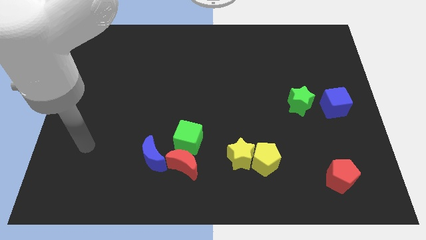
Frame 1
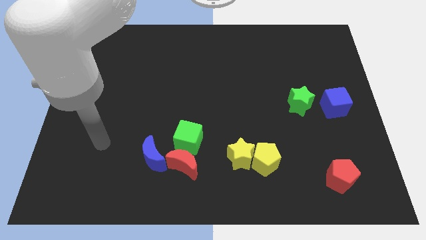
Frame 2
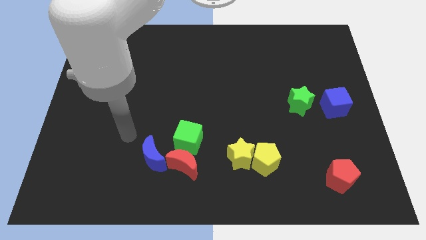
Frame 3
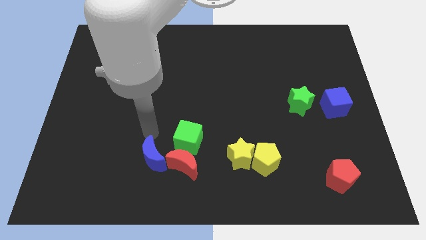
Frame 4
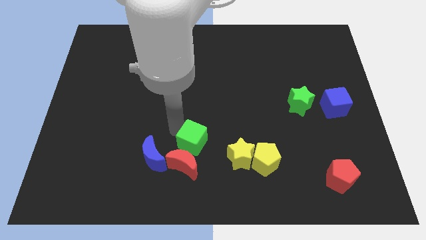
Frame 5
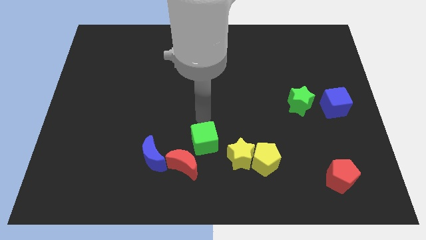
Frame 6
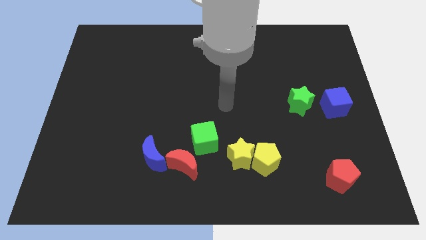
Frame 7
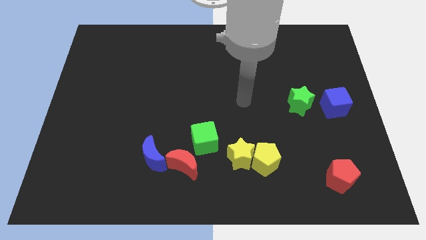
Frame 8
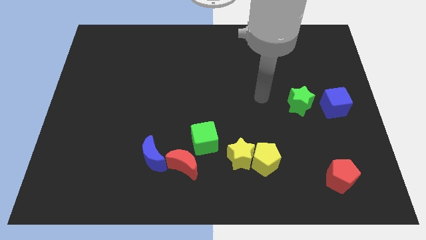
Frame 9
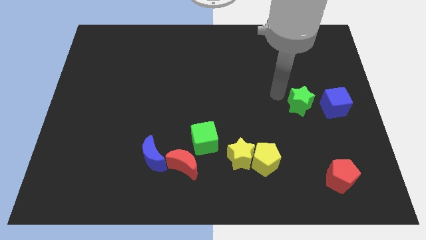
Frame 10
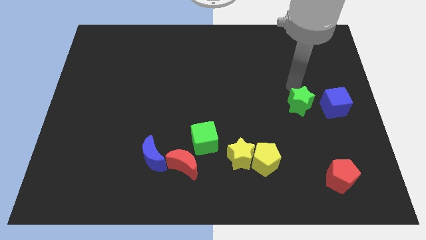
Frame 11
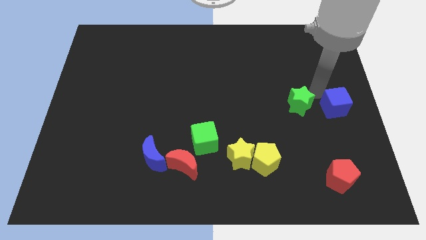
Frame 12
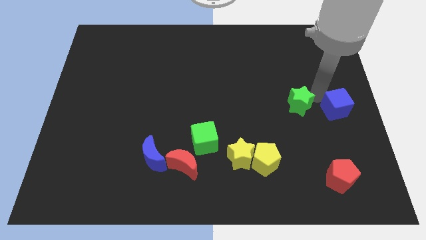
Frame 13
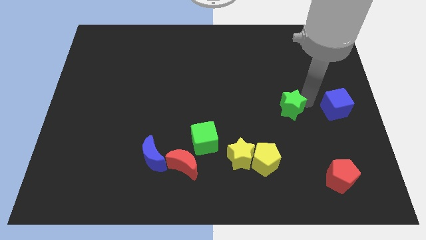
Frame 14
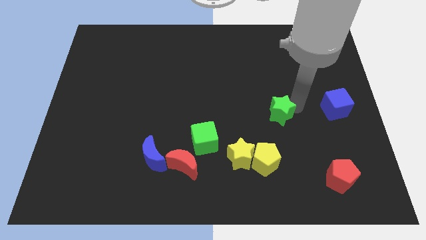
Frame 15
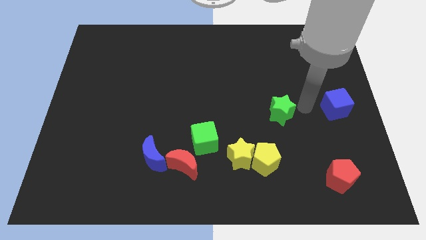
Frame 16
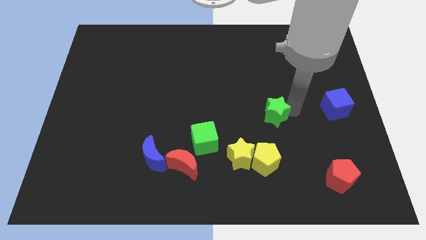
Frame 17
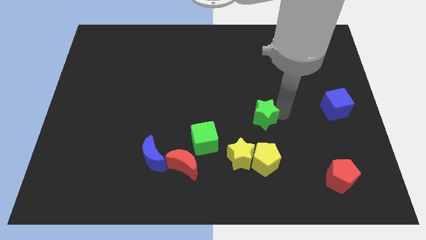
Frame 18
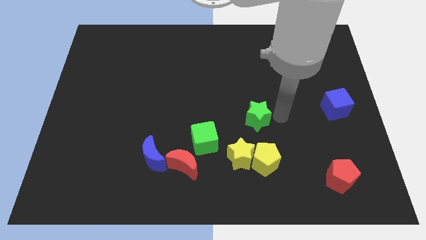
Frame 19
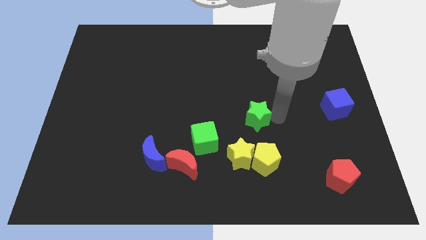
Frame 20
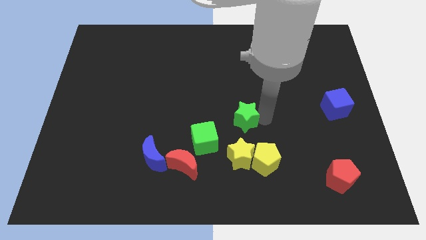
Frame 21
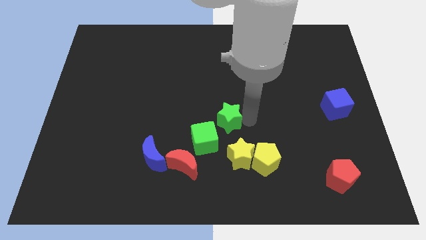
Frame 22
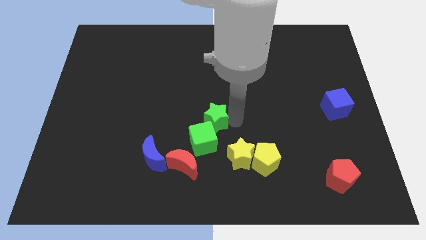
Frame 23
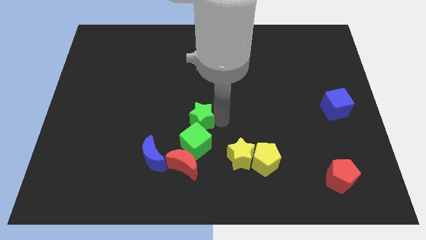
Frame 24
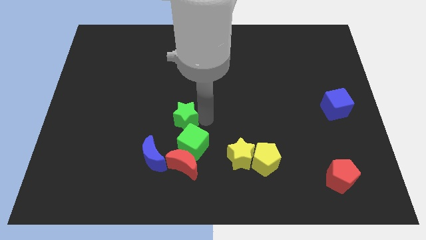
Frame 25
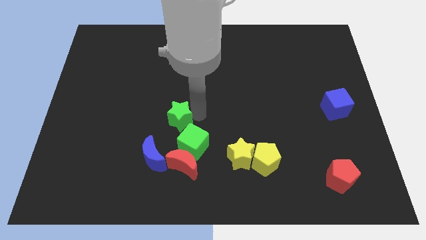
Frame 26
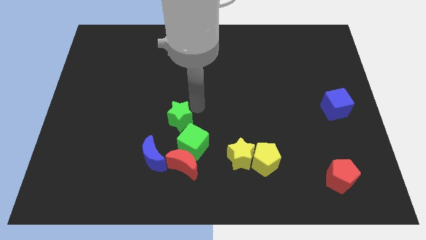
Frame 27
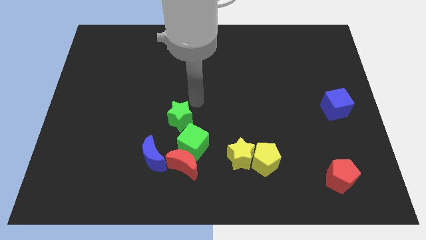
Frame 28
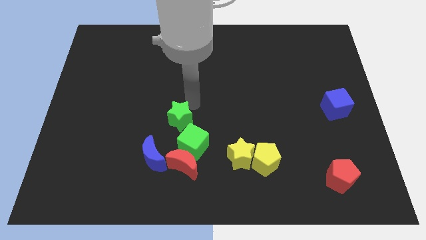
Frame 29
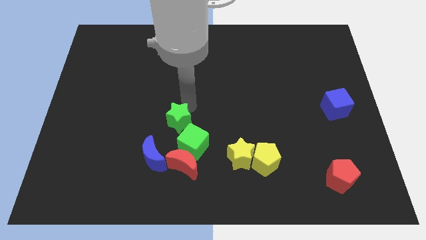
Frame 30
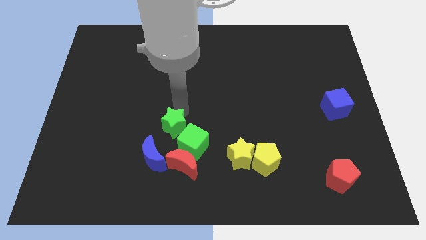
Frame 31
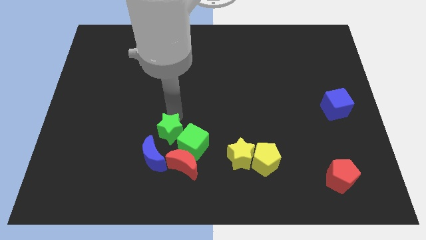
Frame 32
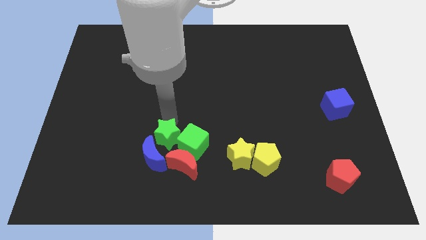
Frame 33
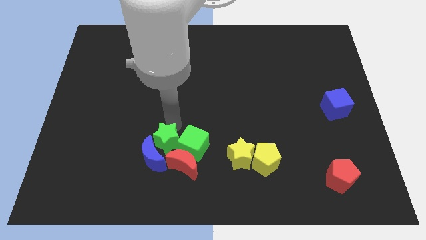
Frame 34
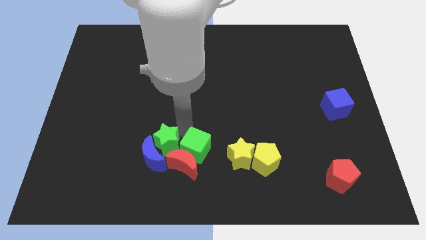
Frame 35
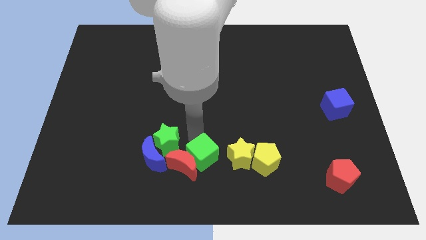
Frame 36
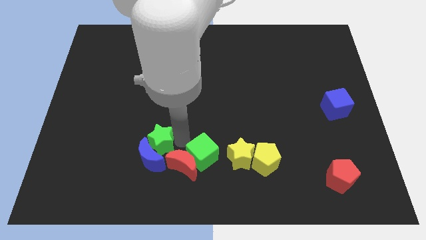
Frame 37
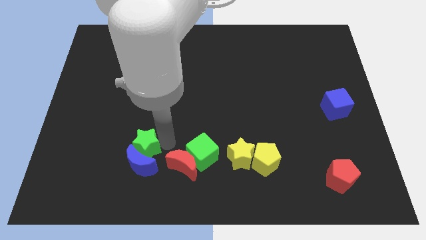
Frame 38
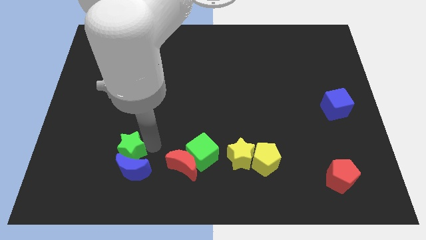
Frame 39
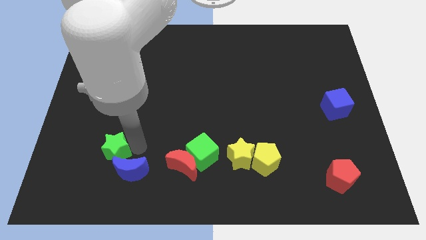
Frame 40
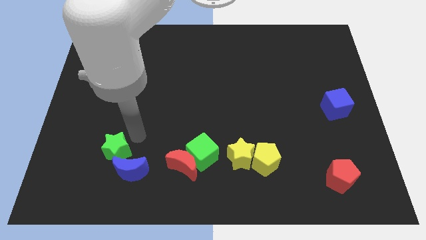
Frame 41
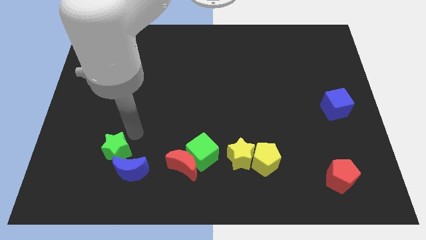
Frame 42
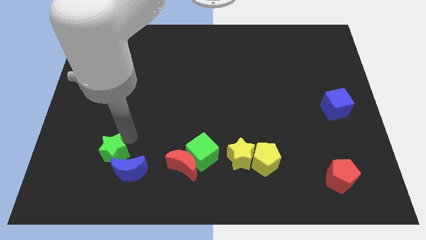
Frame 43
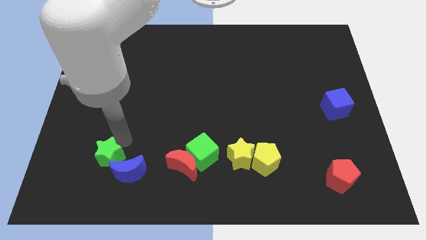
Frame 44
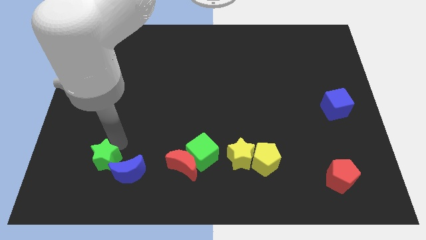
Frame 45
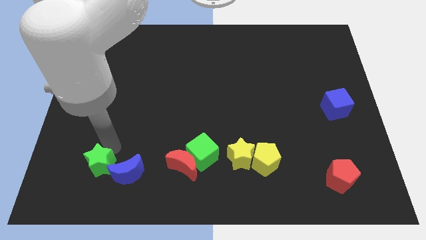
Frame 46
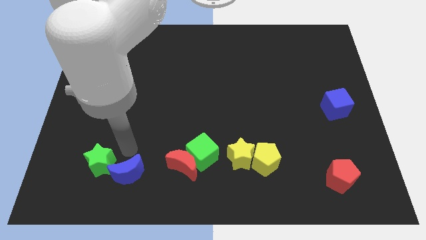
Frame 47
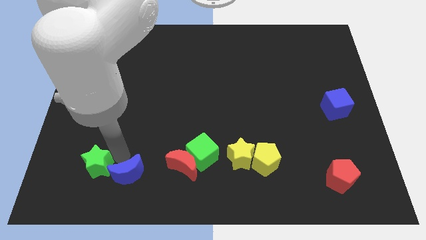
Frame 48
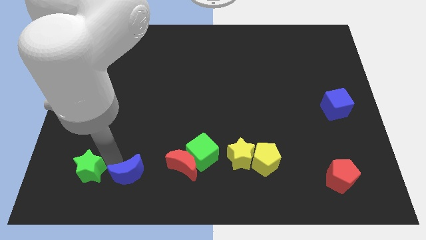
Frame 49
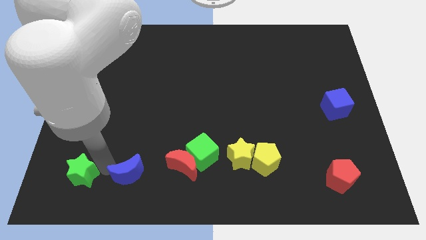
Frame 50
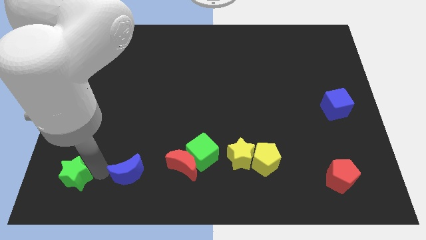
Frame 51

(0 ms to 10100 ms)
push the green star to the lower left corner

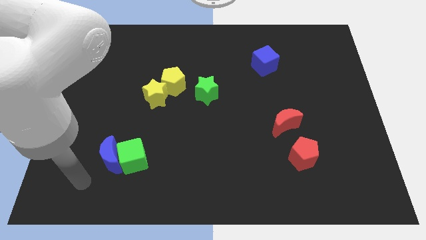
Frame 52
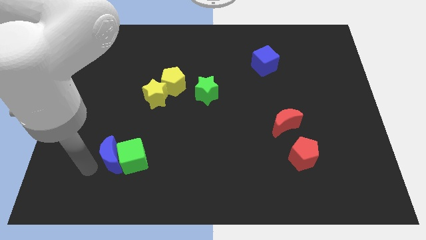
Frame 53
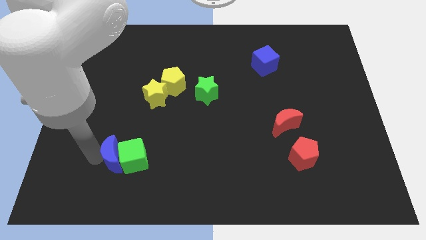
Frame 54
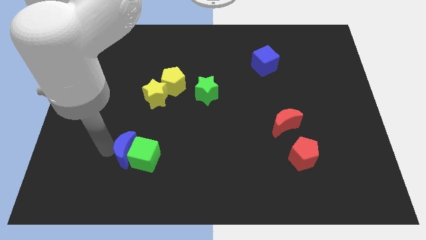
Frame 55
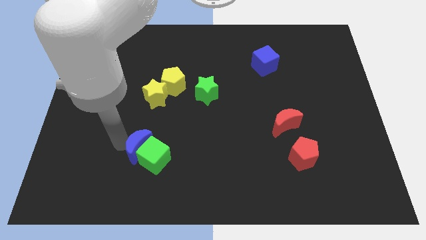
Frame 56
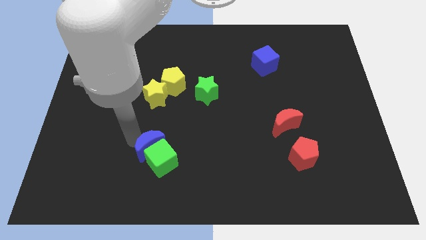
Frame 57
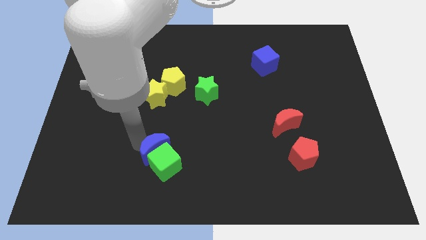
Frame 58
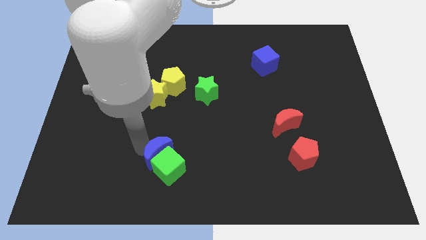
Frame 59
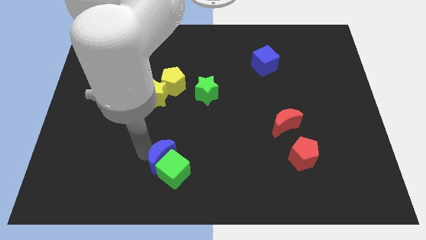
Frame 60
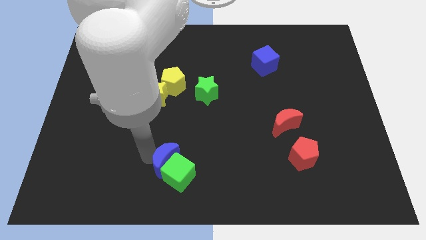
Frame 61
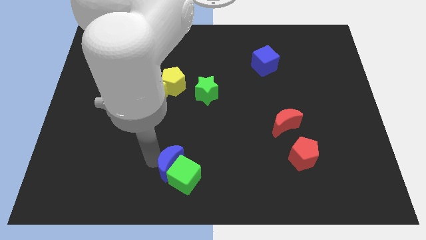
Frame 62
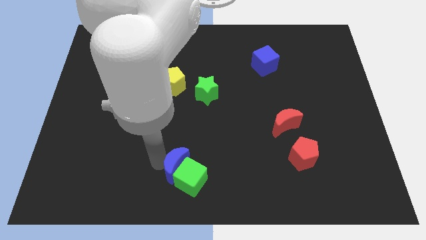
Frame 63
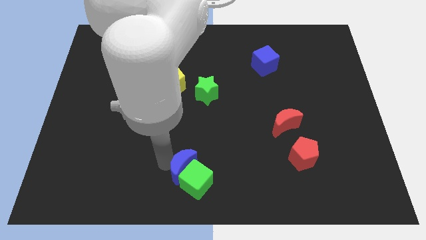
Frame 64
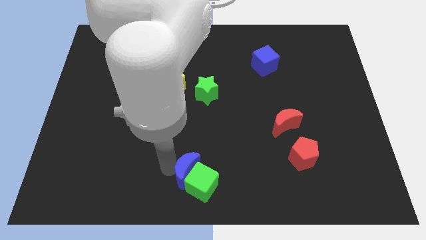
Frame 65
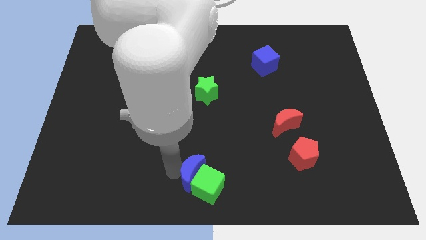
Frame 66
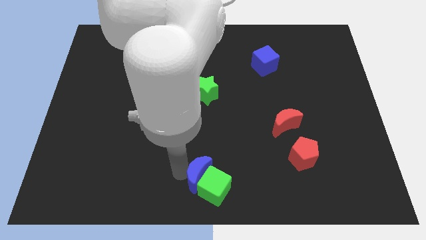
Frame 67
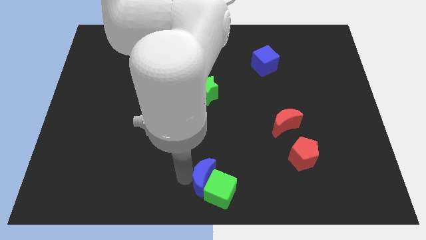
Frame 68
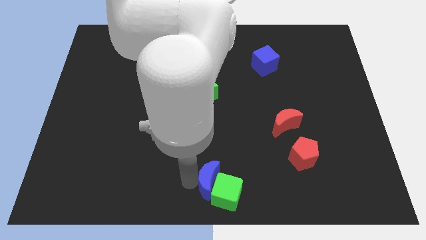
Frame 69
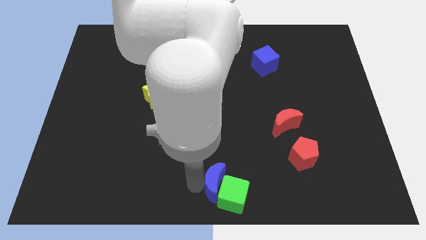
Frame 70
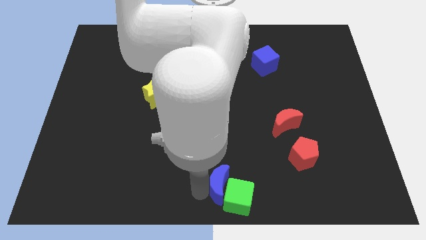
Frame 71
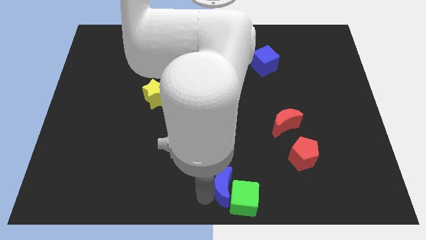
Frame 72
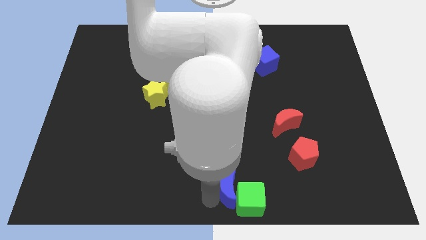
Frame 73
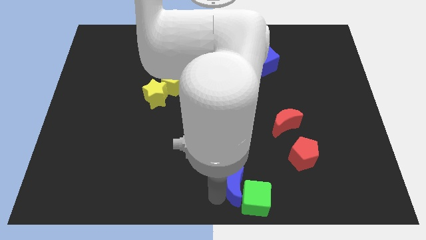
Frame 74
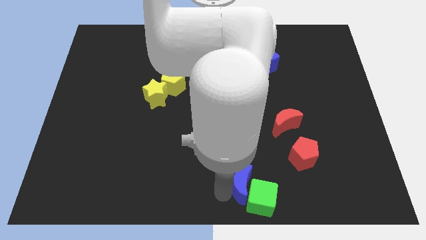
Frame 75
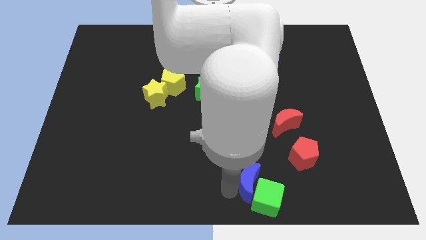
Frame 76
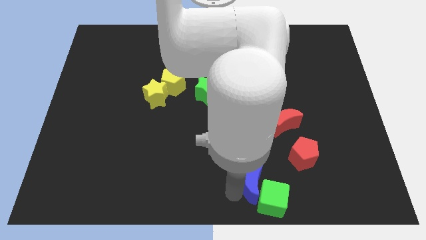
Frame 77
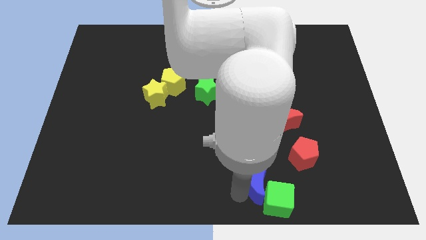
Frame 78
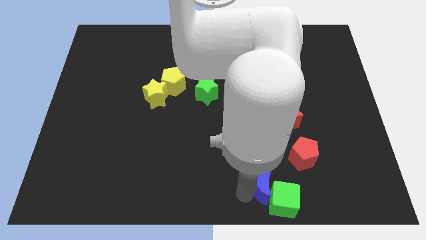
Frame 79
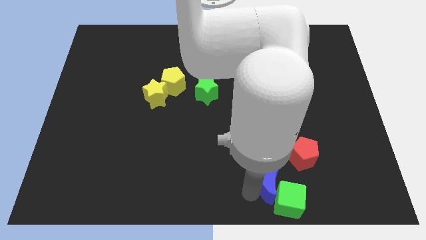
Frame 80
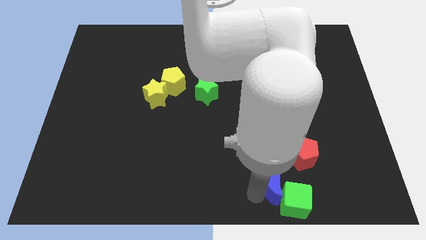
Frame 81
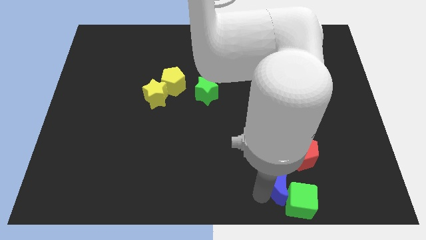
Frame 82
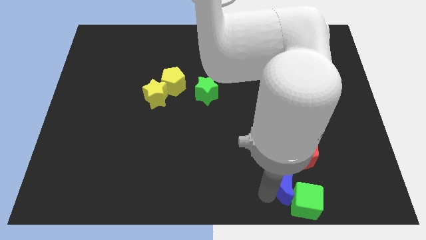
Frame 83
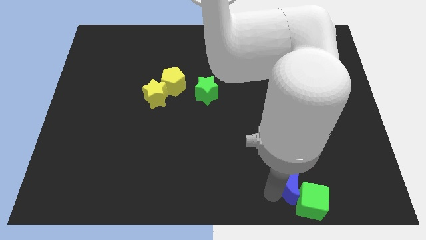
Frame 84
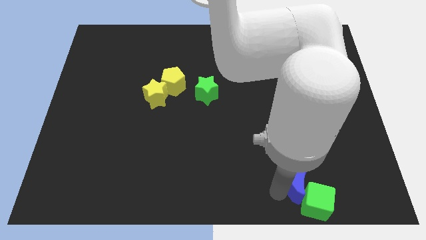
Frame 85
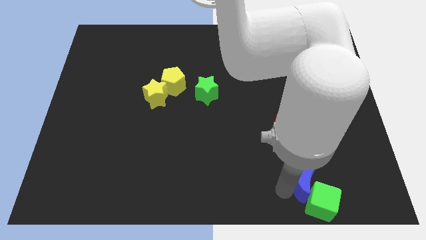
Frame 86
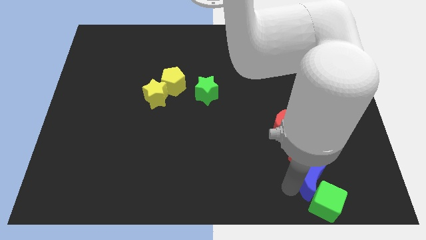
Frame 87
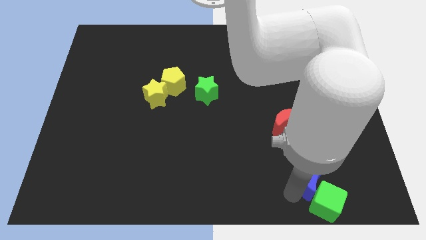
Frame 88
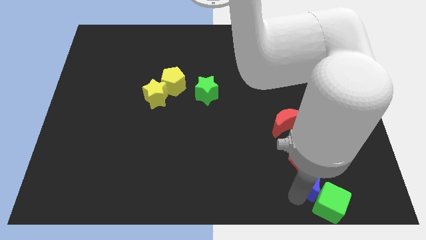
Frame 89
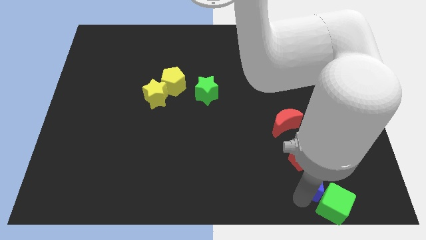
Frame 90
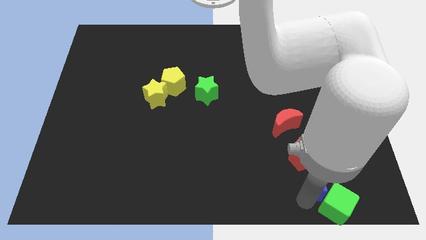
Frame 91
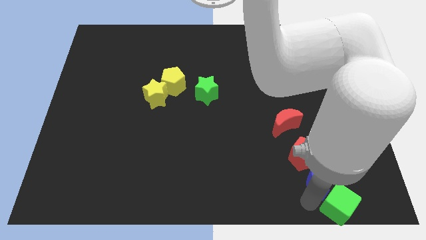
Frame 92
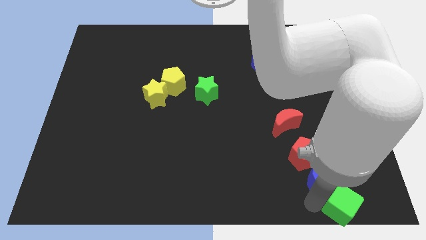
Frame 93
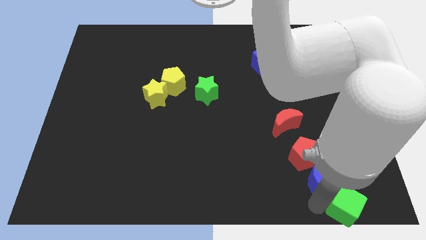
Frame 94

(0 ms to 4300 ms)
put the green cube to the bottom right corner
